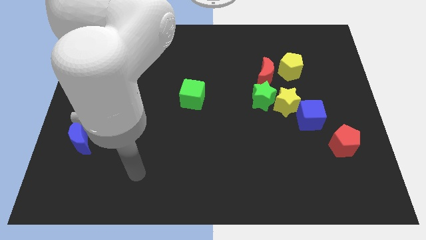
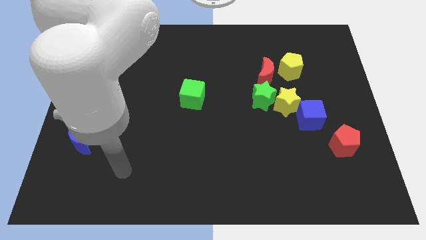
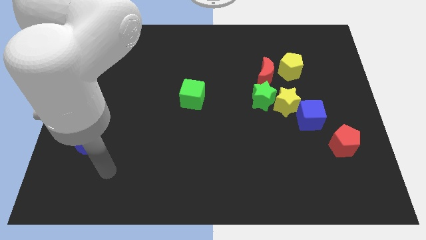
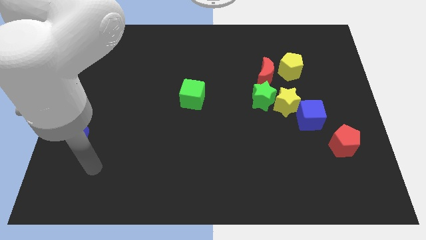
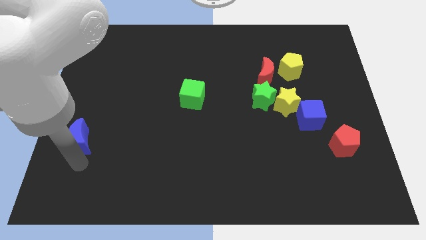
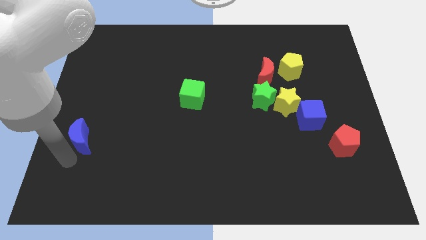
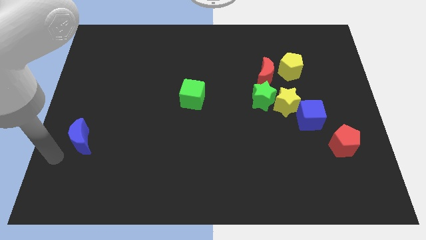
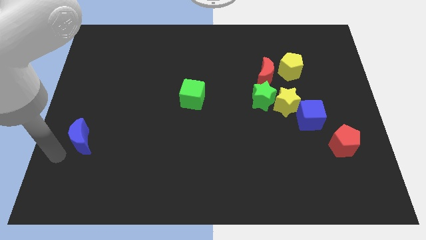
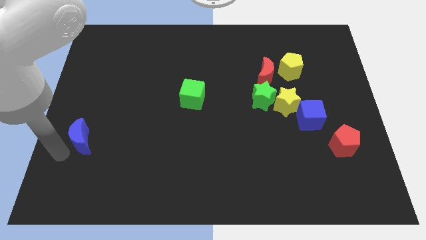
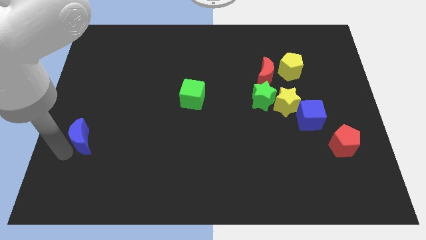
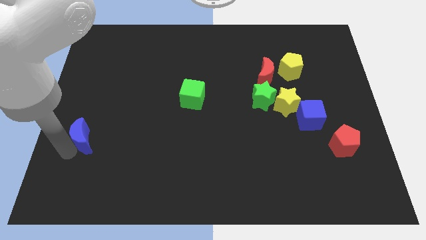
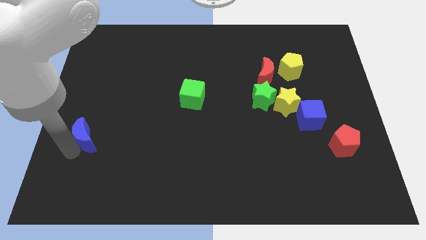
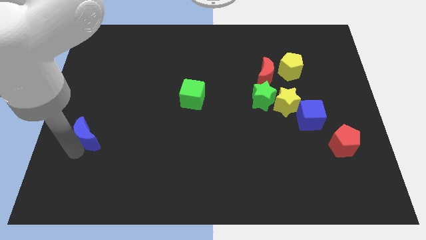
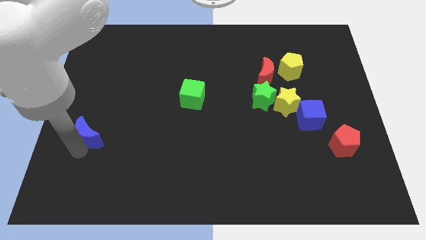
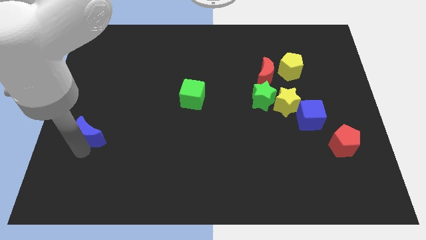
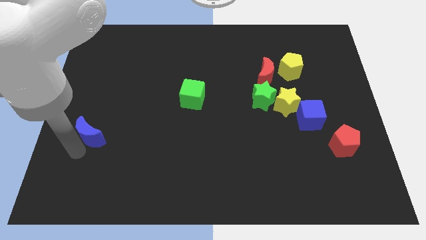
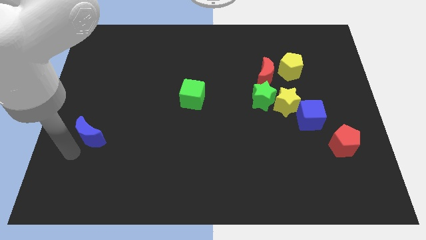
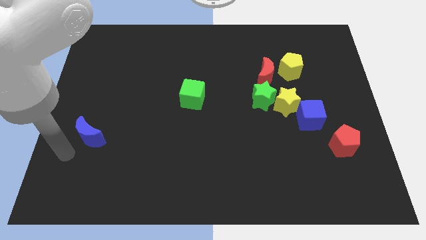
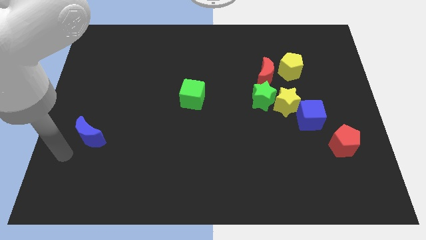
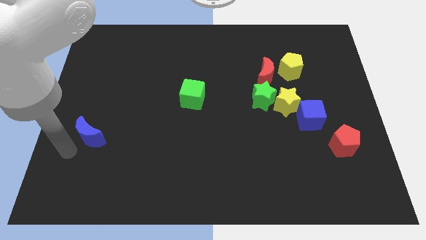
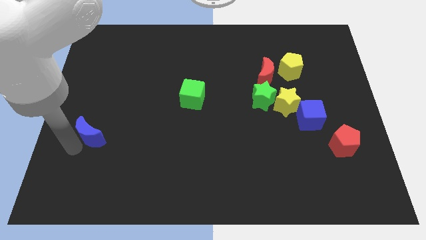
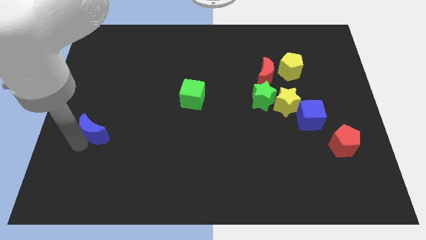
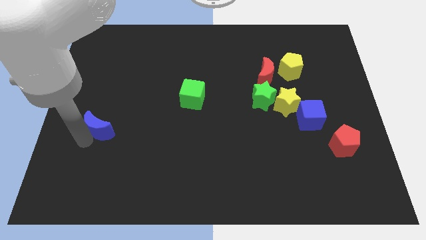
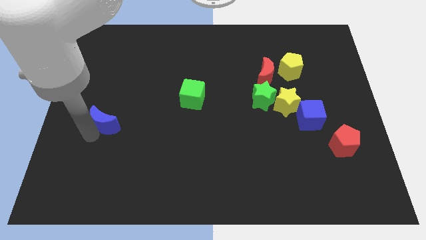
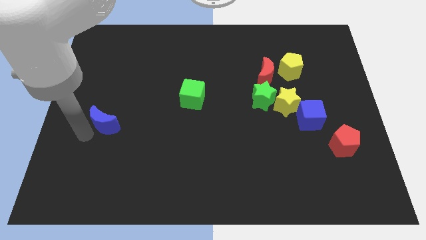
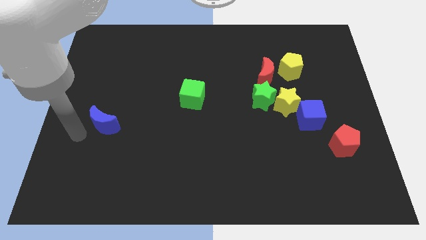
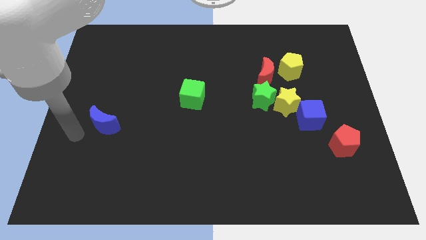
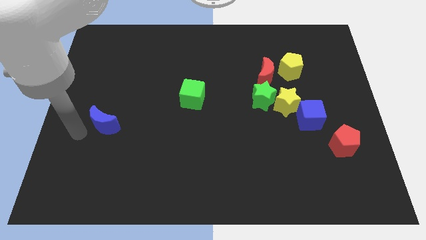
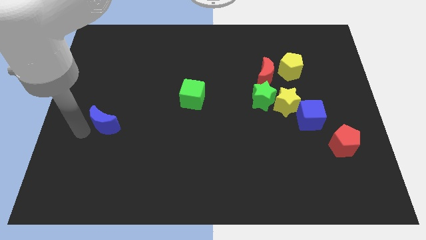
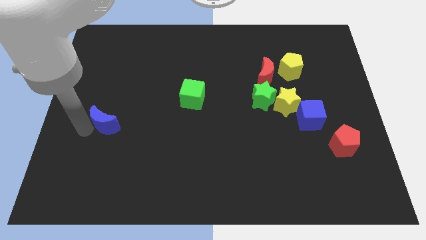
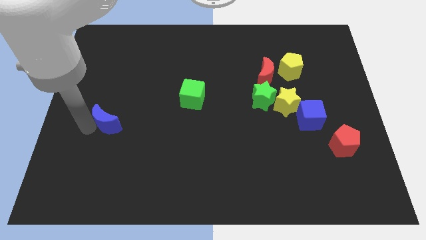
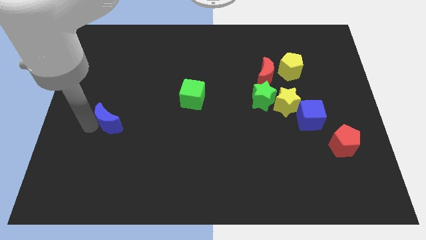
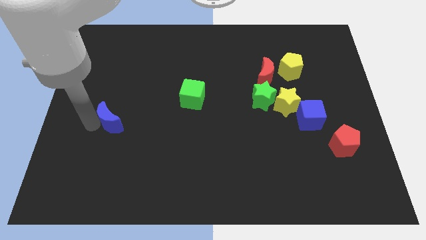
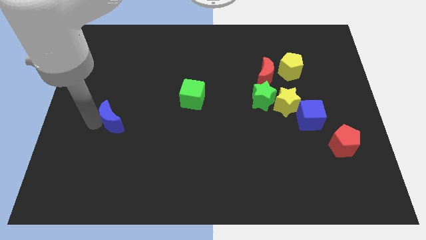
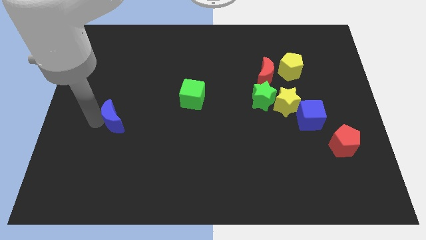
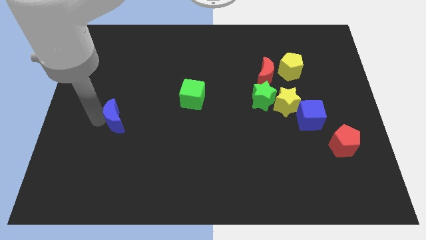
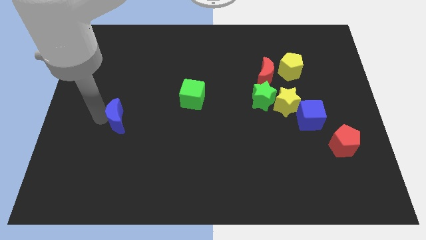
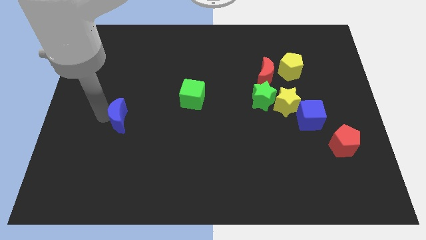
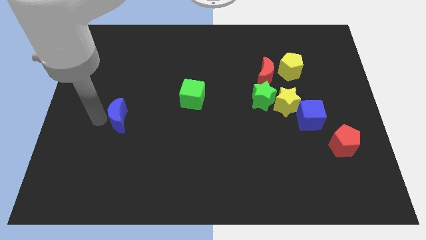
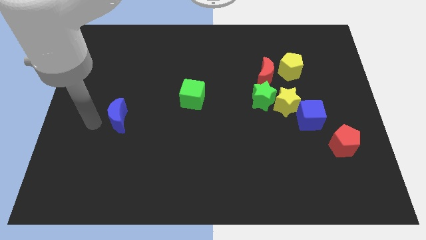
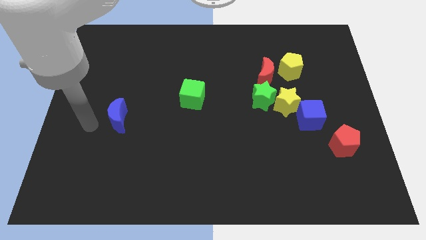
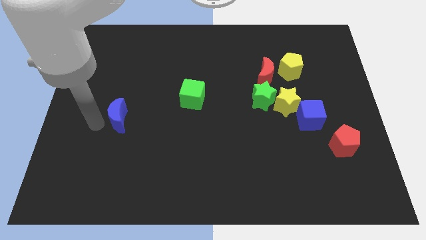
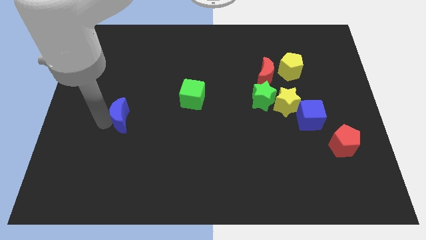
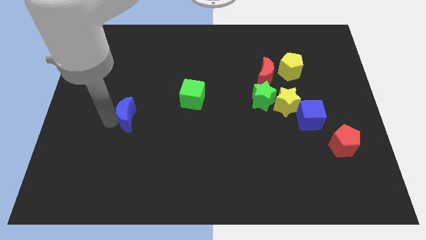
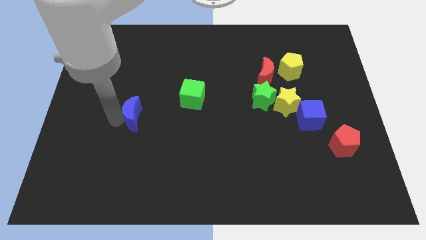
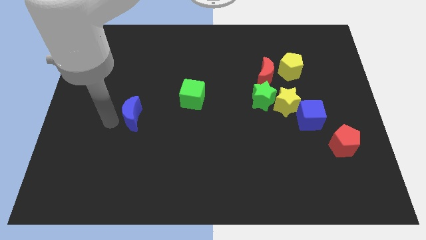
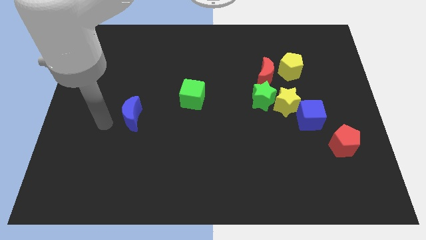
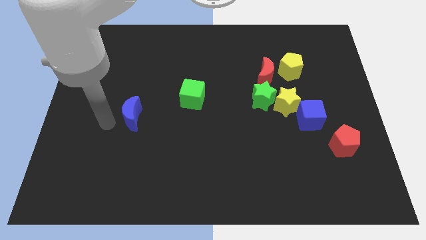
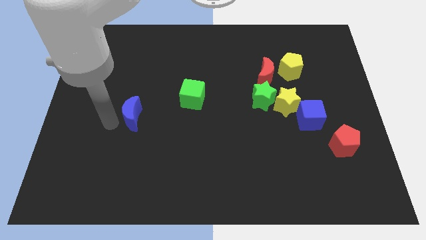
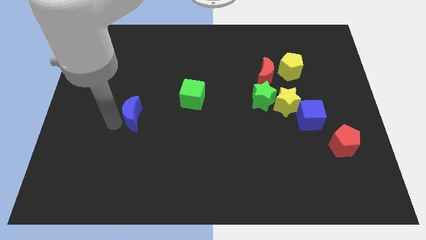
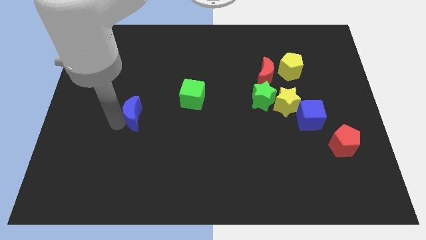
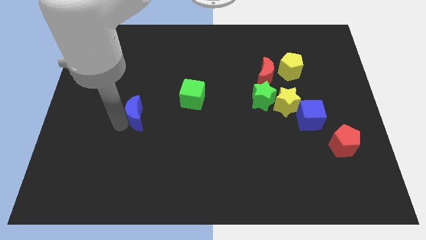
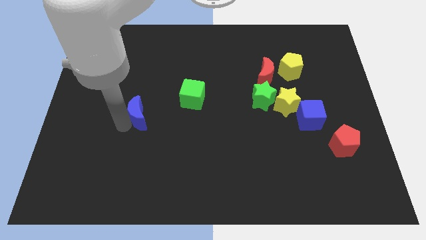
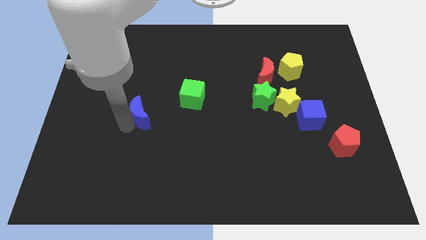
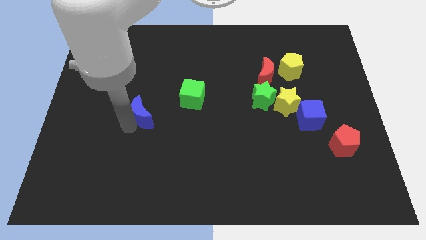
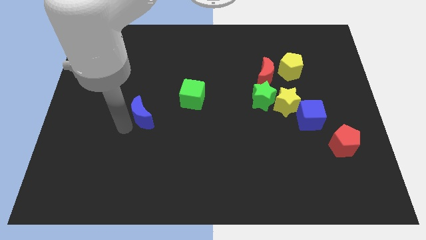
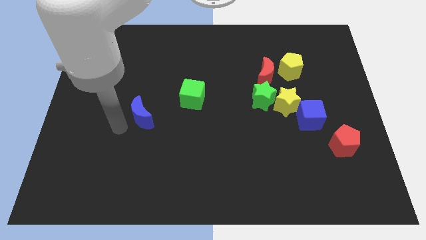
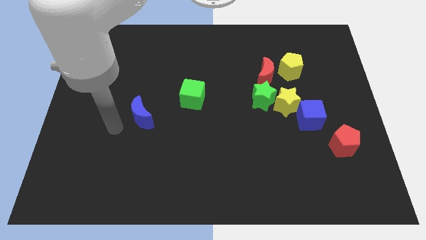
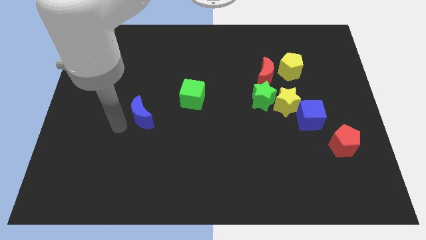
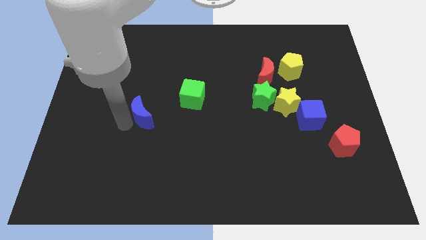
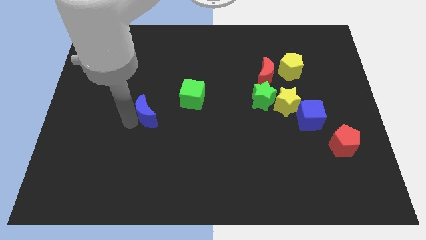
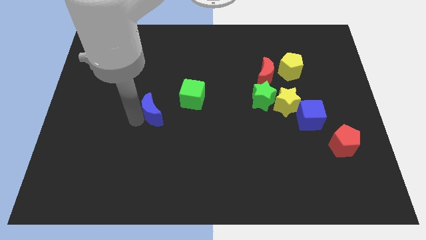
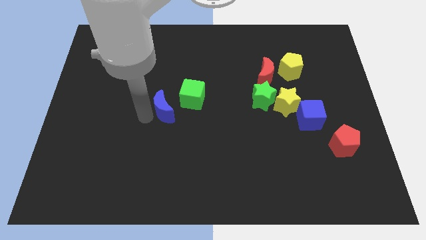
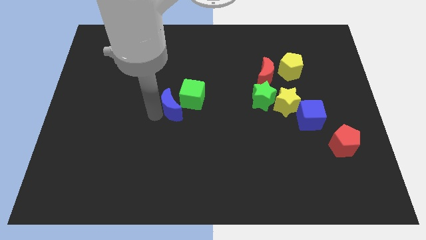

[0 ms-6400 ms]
push the blue moon next to the green cube

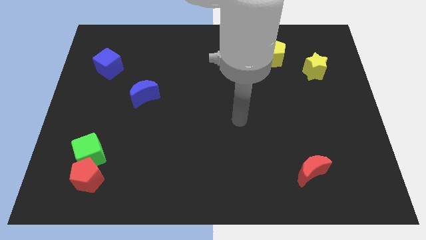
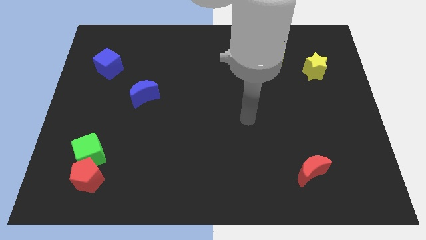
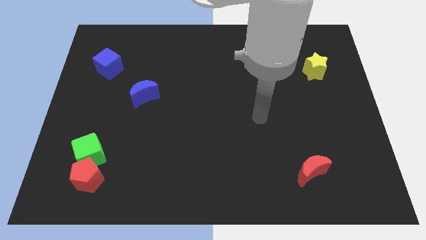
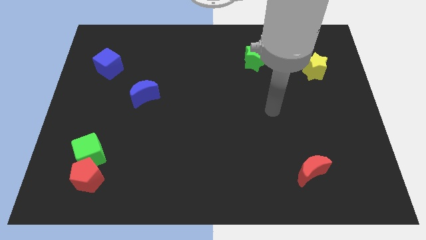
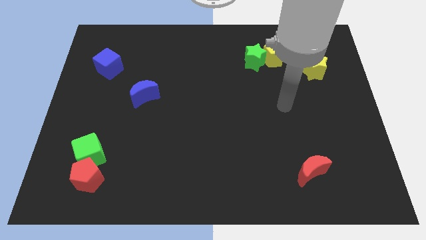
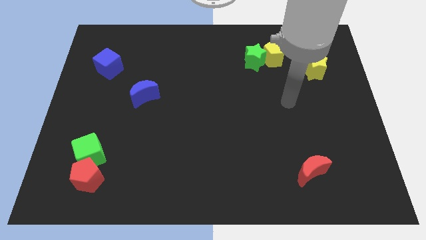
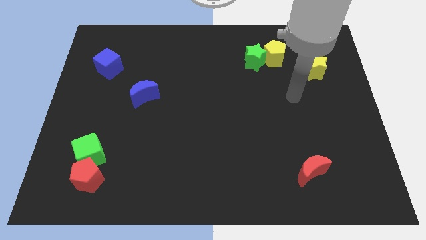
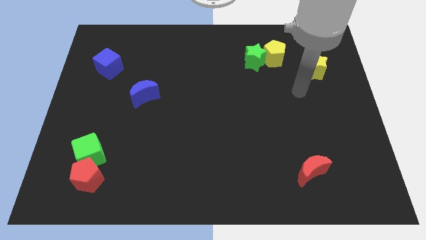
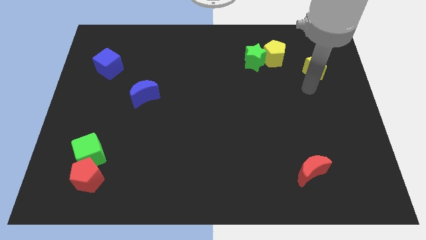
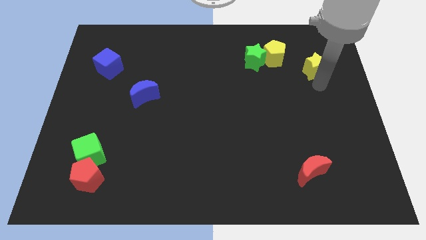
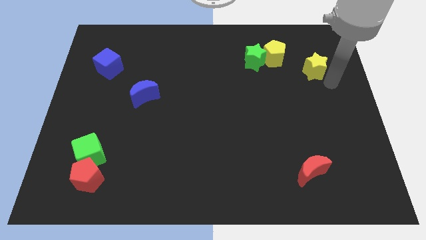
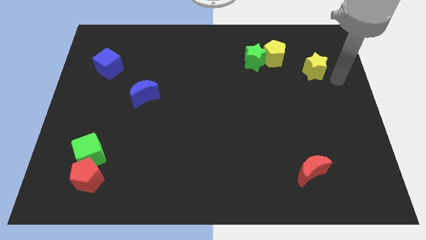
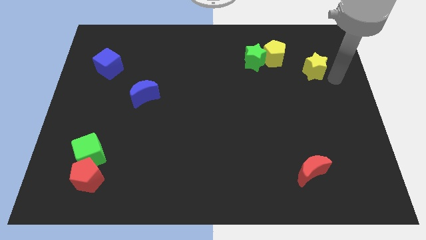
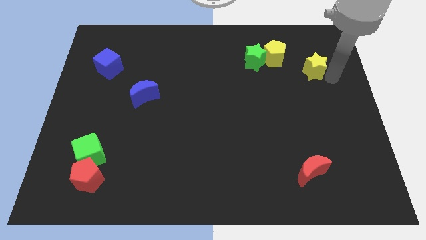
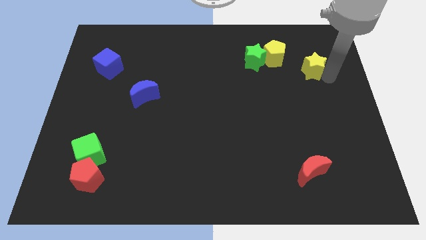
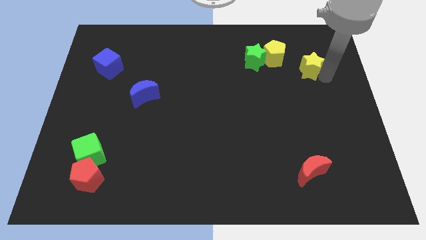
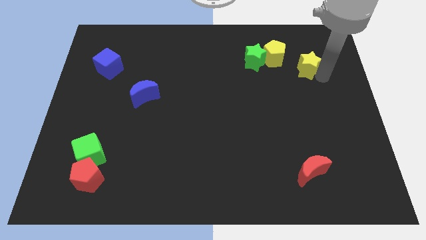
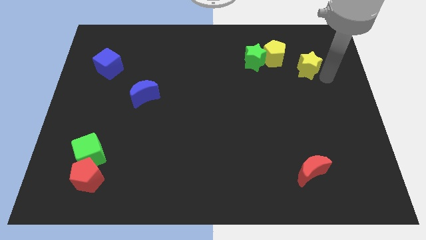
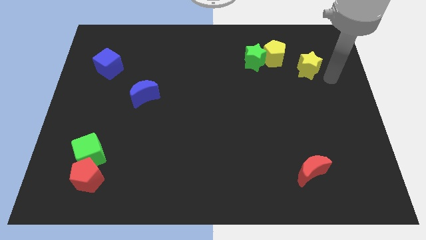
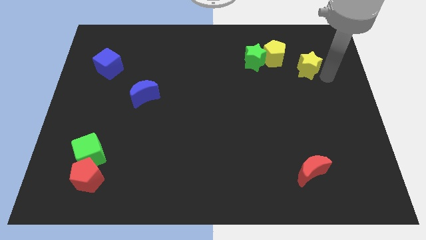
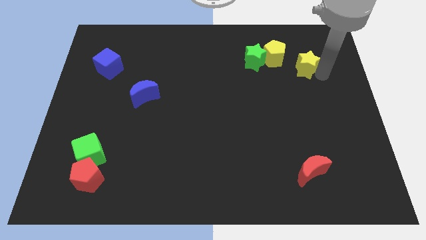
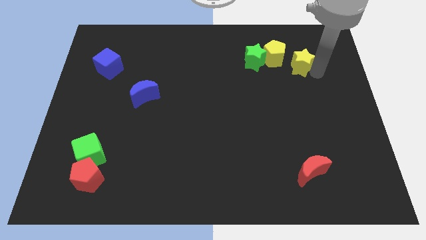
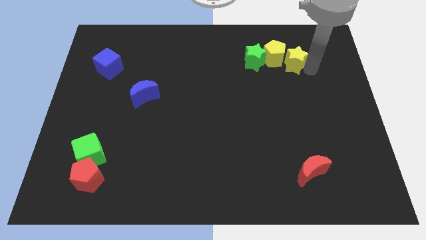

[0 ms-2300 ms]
slide the yellow star close to the yellow pentagon
